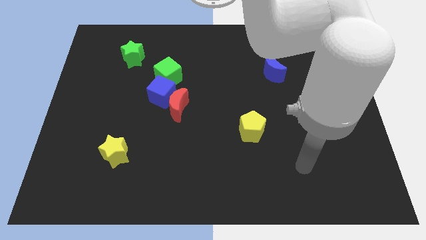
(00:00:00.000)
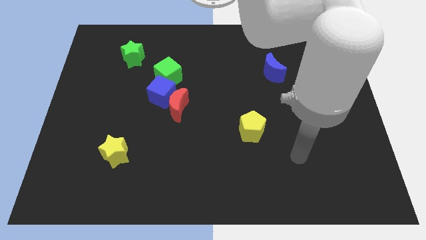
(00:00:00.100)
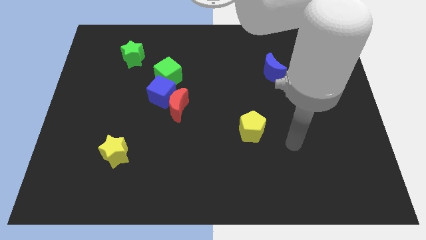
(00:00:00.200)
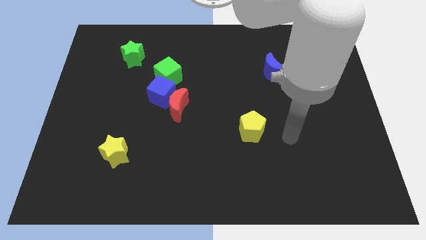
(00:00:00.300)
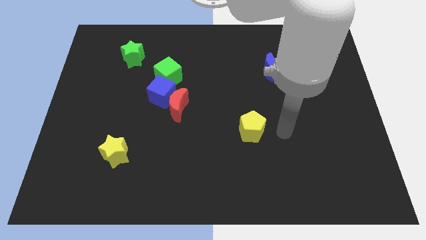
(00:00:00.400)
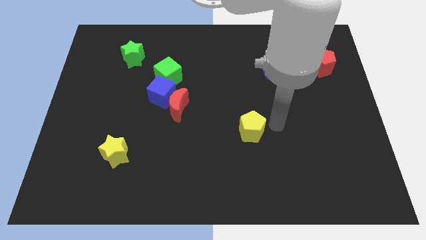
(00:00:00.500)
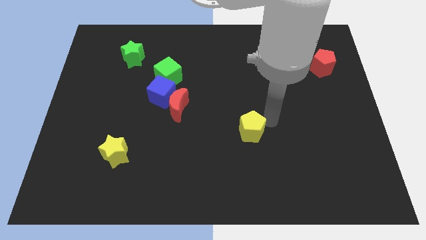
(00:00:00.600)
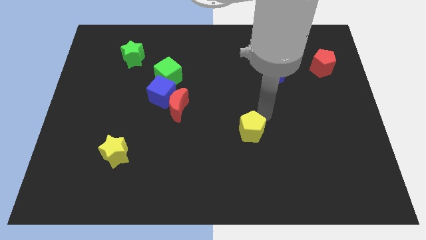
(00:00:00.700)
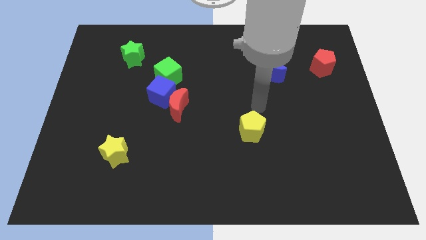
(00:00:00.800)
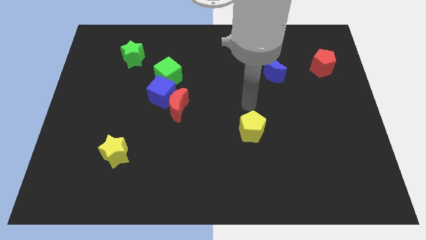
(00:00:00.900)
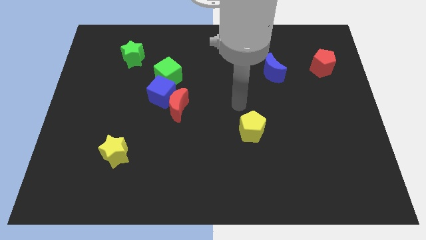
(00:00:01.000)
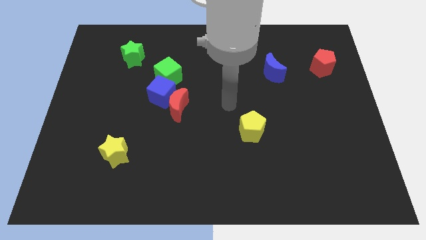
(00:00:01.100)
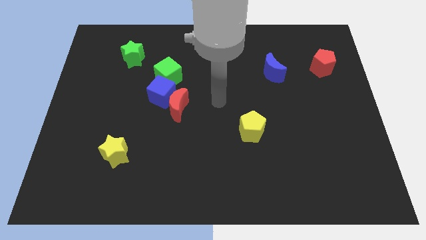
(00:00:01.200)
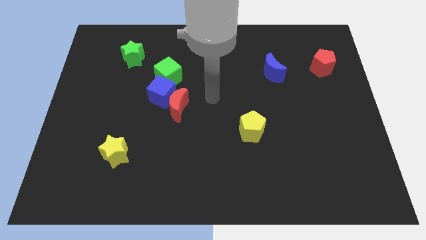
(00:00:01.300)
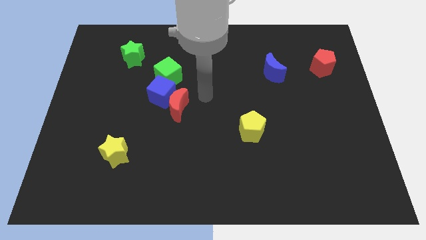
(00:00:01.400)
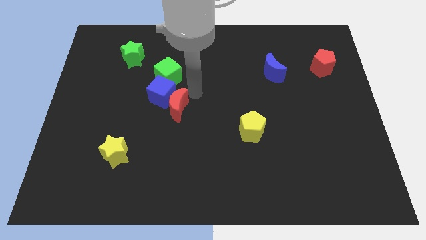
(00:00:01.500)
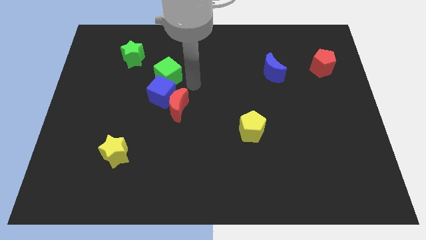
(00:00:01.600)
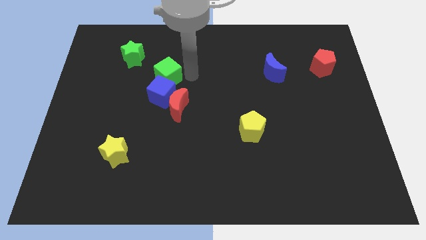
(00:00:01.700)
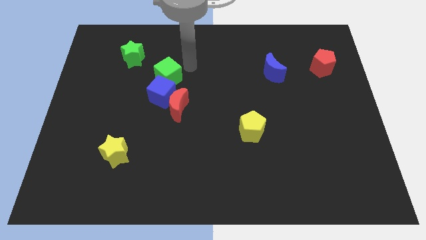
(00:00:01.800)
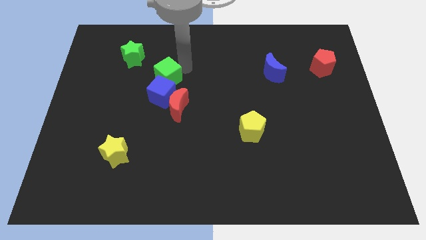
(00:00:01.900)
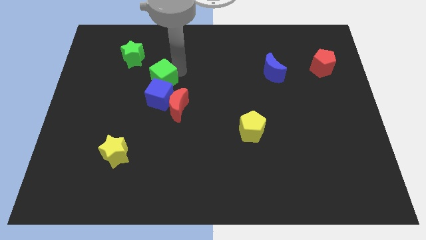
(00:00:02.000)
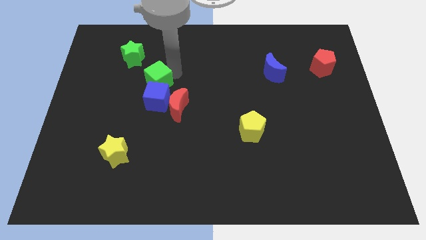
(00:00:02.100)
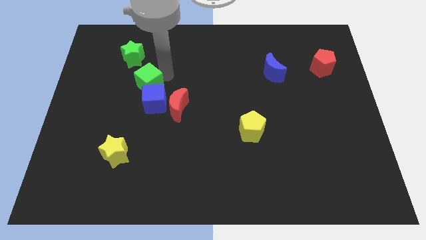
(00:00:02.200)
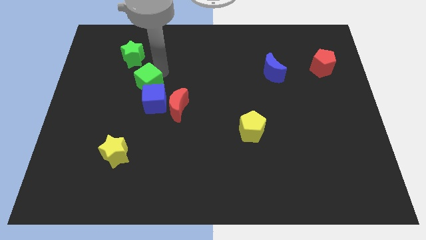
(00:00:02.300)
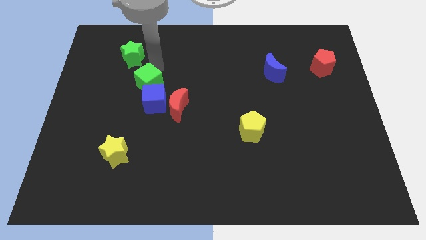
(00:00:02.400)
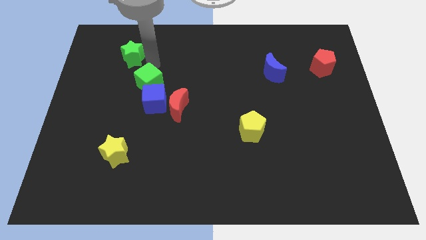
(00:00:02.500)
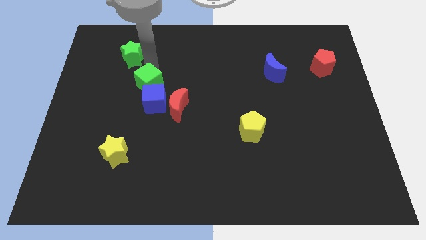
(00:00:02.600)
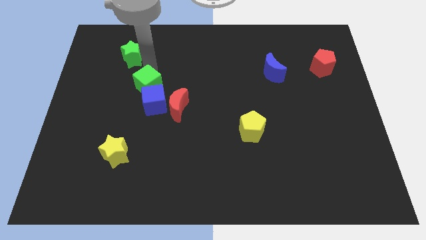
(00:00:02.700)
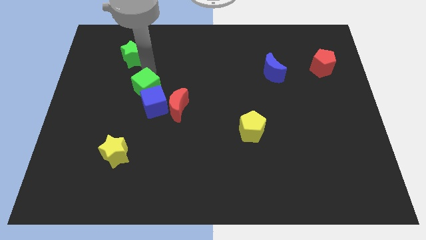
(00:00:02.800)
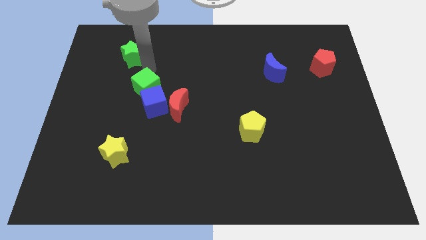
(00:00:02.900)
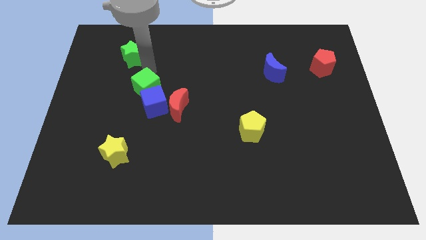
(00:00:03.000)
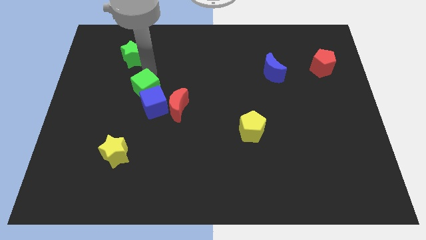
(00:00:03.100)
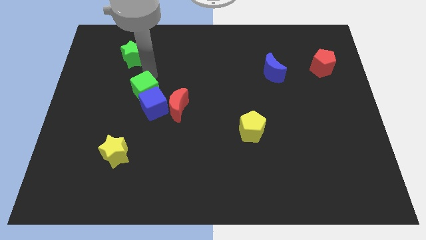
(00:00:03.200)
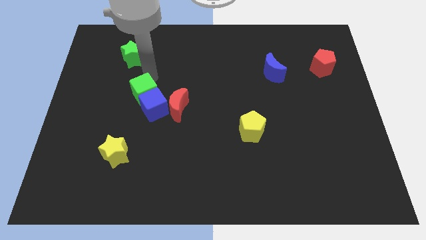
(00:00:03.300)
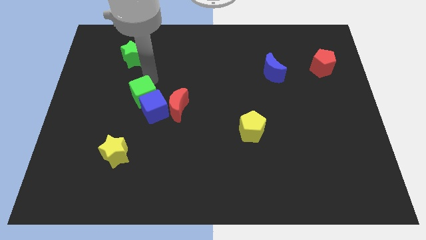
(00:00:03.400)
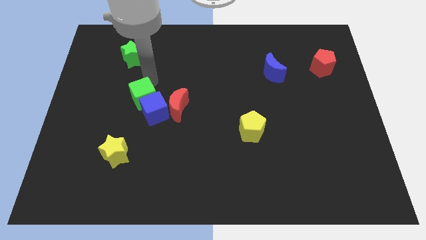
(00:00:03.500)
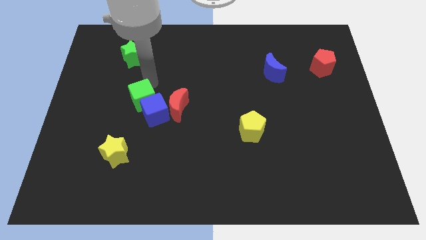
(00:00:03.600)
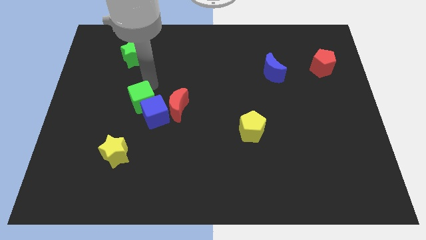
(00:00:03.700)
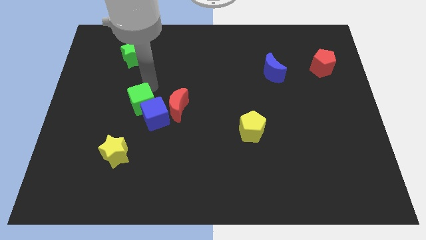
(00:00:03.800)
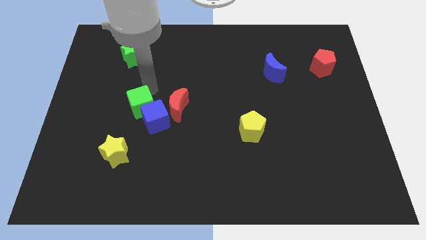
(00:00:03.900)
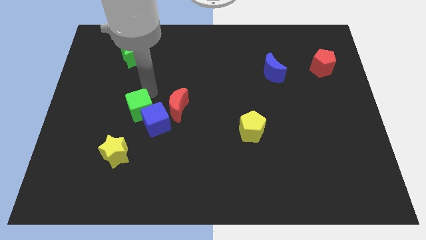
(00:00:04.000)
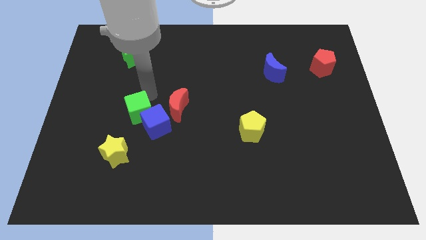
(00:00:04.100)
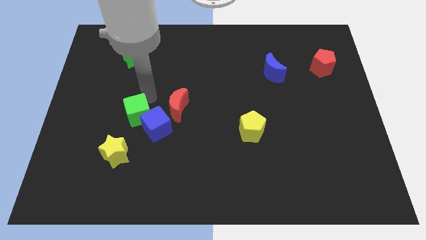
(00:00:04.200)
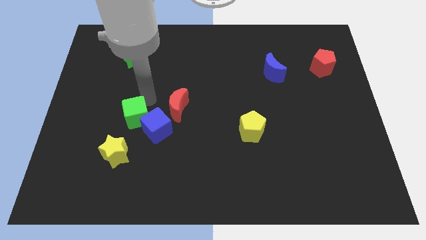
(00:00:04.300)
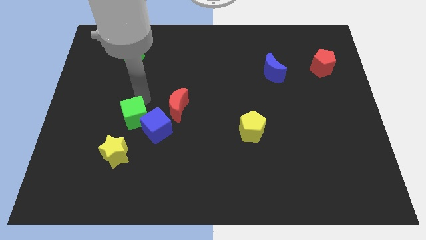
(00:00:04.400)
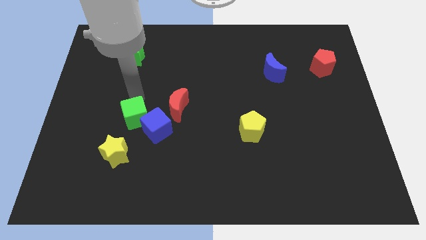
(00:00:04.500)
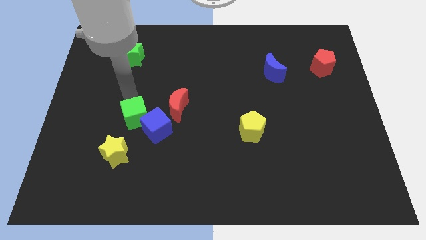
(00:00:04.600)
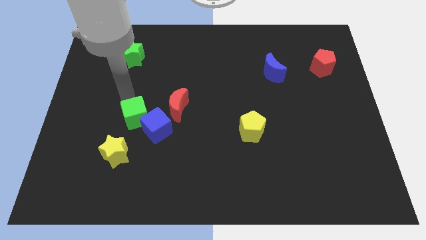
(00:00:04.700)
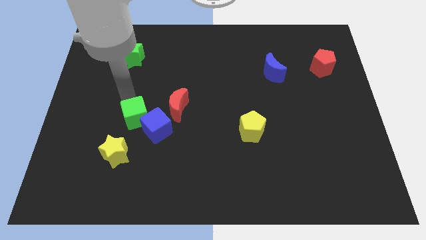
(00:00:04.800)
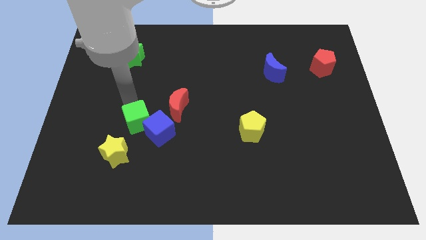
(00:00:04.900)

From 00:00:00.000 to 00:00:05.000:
slide the green cube to the top right side of the yellow star

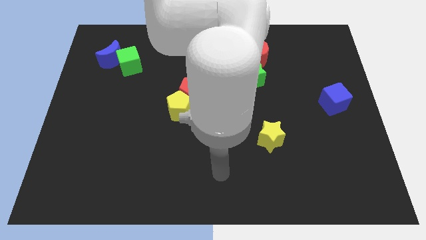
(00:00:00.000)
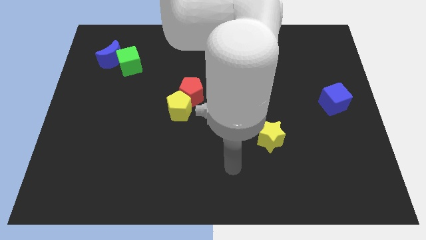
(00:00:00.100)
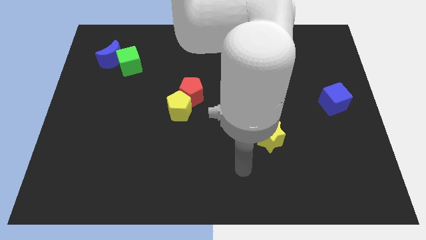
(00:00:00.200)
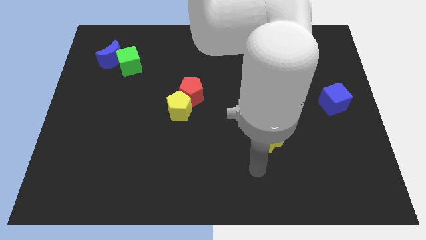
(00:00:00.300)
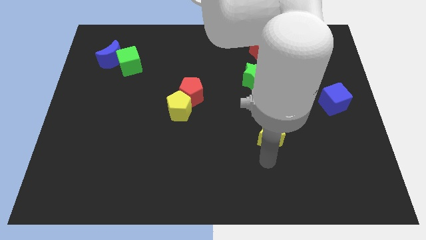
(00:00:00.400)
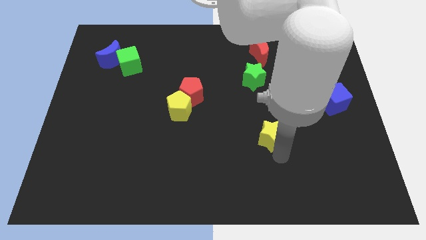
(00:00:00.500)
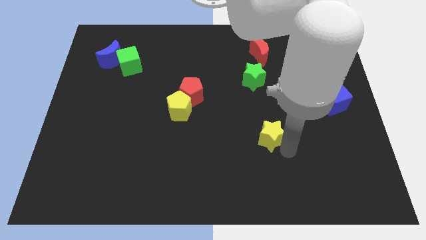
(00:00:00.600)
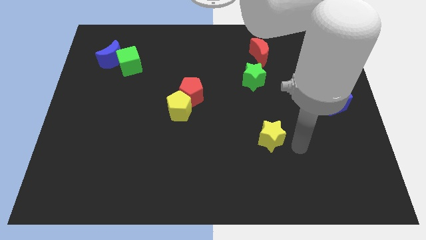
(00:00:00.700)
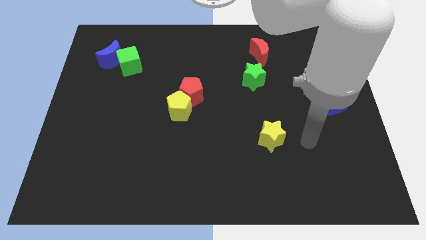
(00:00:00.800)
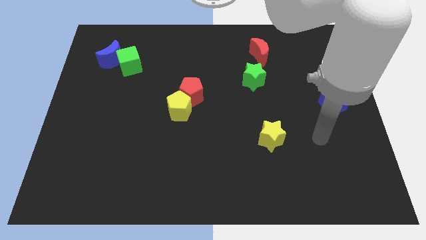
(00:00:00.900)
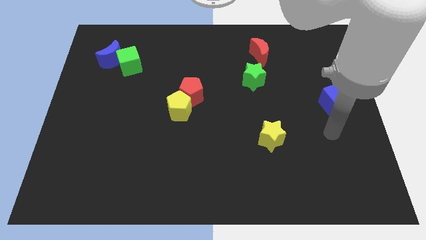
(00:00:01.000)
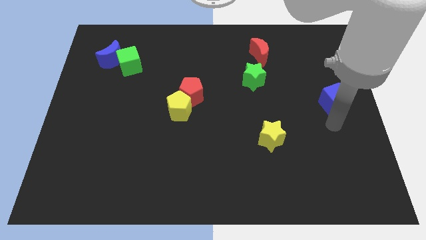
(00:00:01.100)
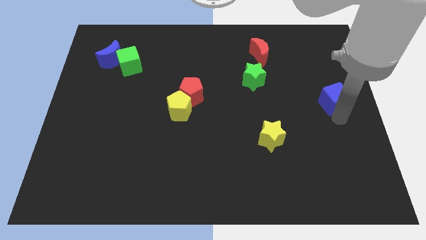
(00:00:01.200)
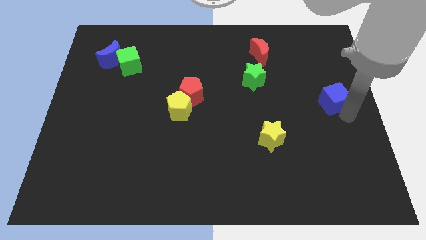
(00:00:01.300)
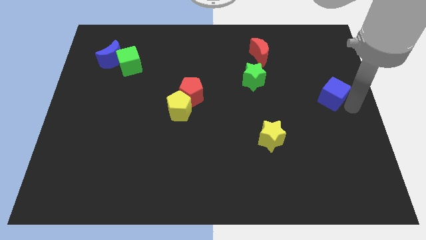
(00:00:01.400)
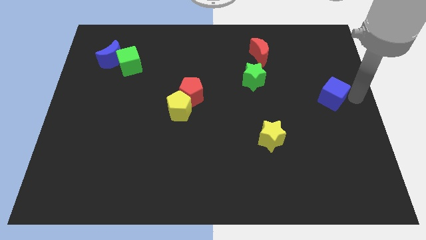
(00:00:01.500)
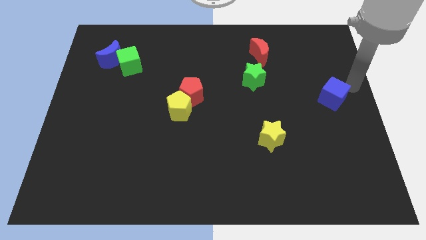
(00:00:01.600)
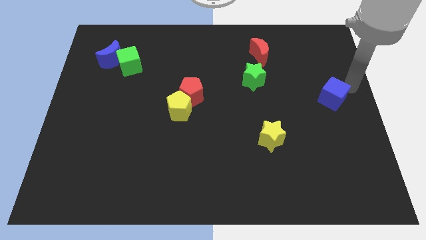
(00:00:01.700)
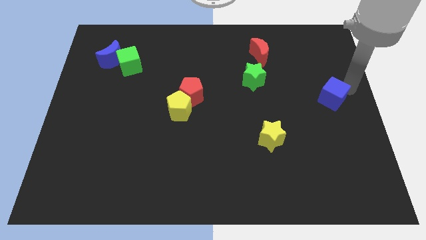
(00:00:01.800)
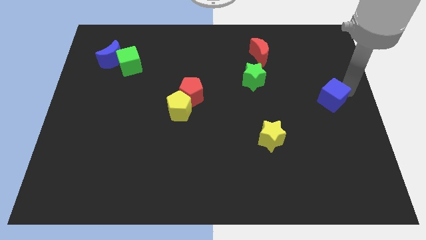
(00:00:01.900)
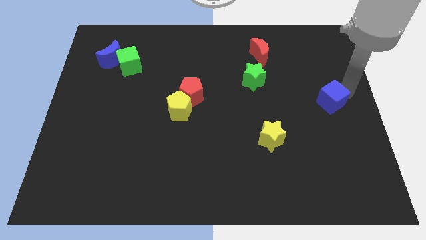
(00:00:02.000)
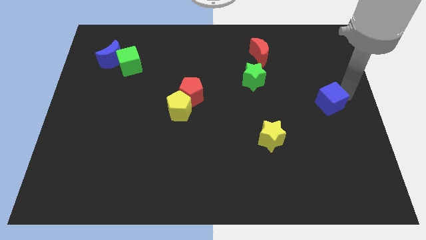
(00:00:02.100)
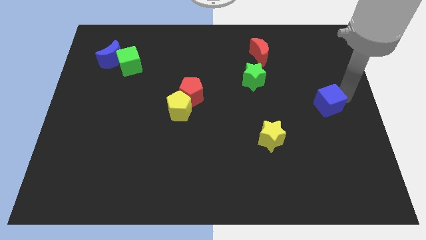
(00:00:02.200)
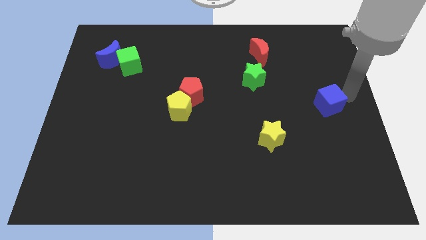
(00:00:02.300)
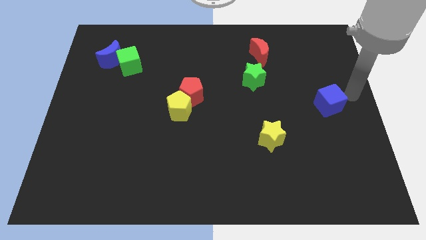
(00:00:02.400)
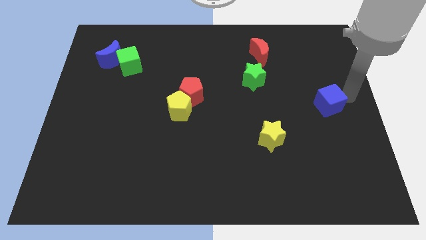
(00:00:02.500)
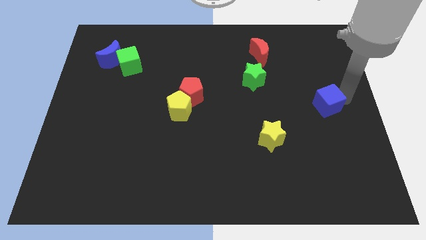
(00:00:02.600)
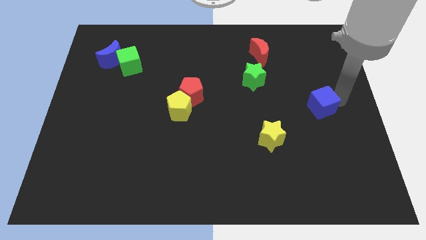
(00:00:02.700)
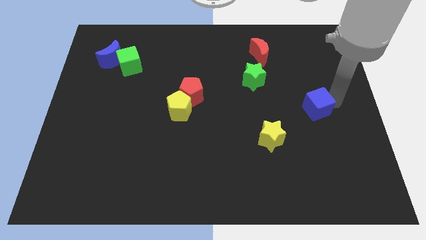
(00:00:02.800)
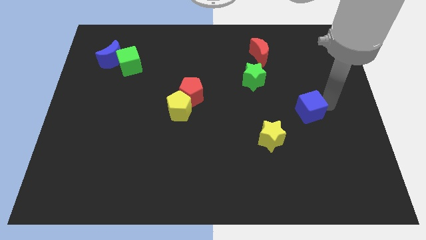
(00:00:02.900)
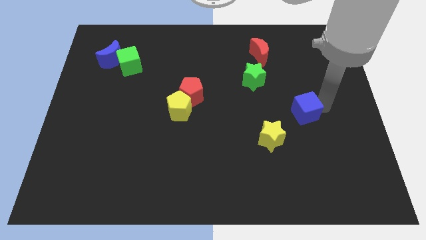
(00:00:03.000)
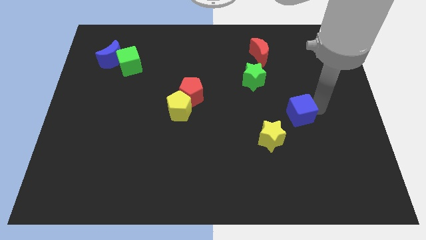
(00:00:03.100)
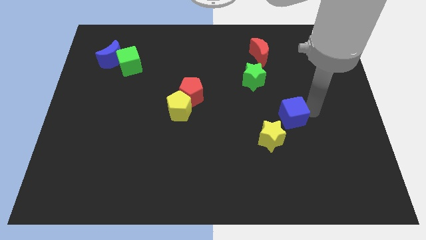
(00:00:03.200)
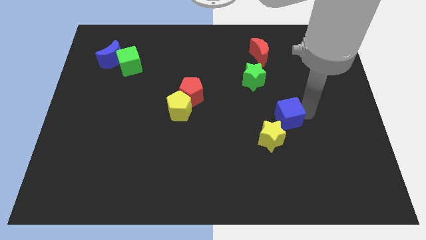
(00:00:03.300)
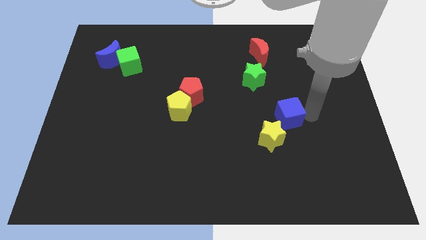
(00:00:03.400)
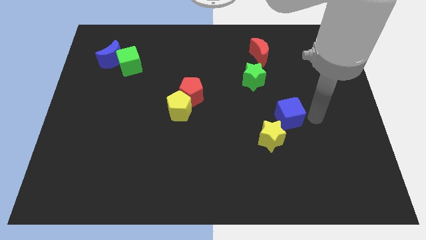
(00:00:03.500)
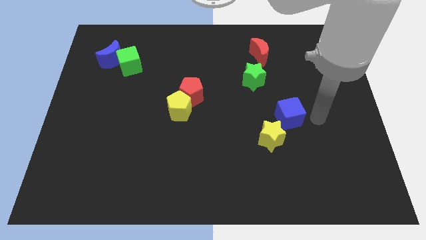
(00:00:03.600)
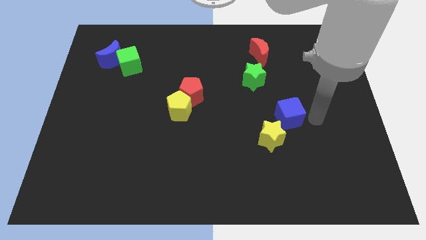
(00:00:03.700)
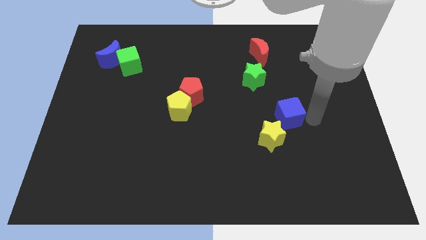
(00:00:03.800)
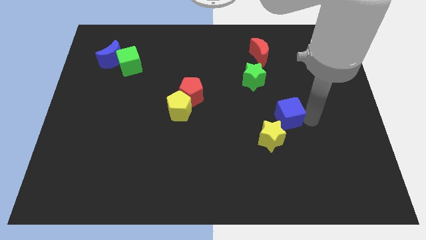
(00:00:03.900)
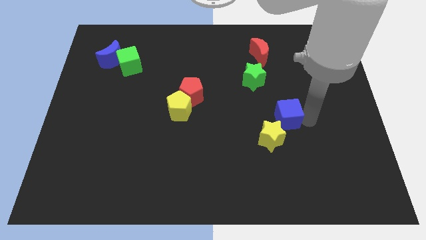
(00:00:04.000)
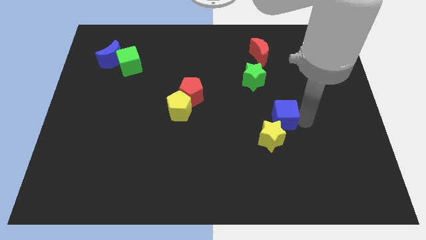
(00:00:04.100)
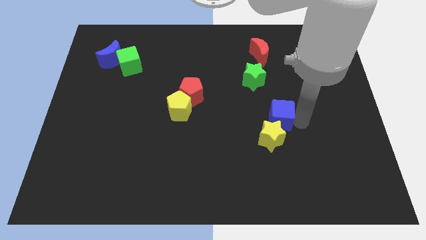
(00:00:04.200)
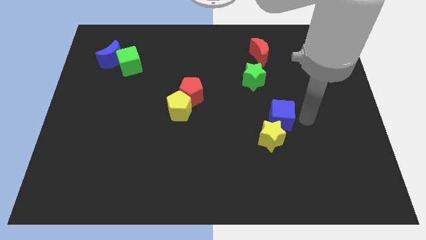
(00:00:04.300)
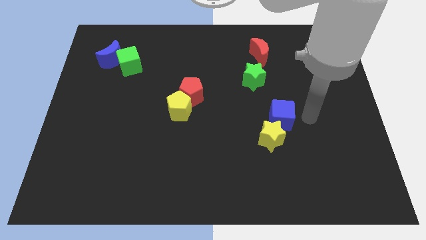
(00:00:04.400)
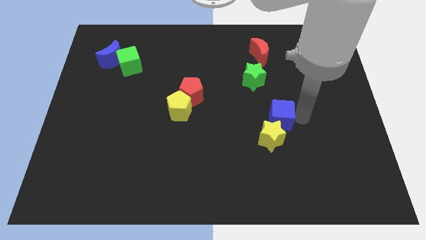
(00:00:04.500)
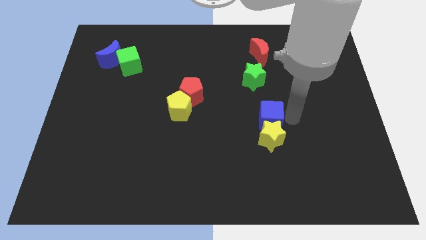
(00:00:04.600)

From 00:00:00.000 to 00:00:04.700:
push the blue cube to the top left side of the yellow star
